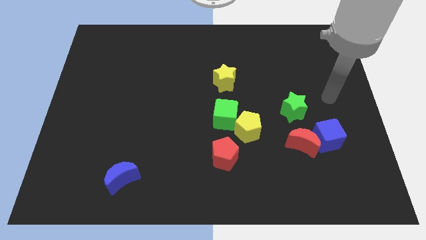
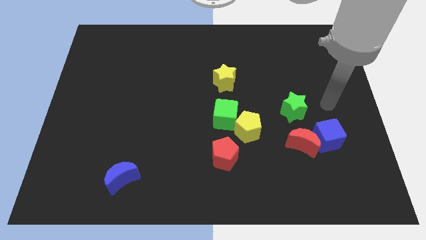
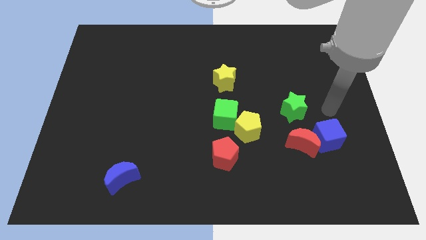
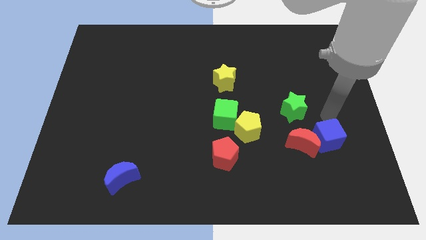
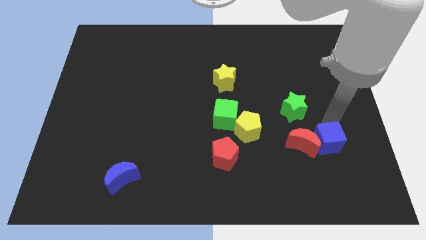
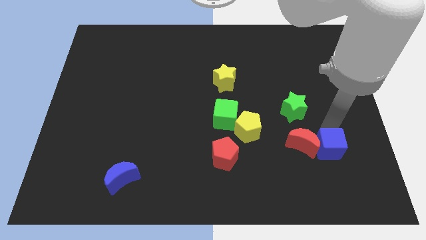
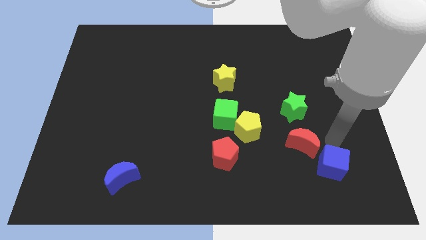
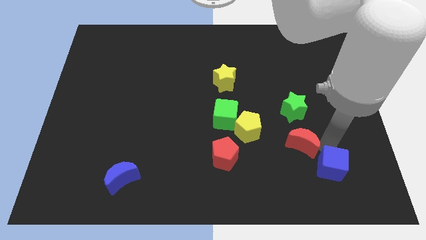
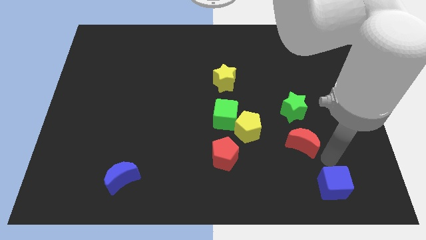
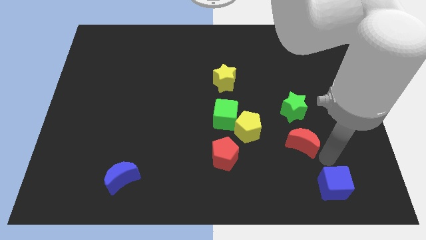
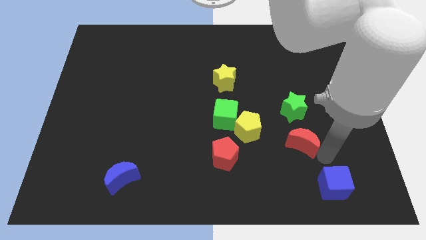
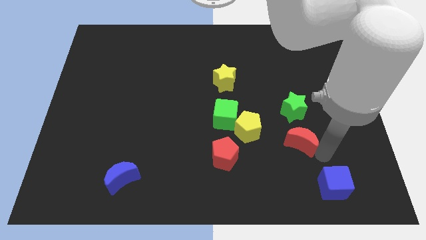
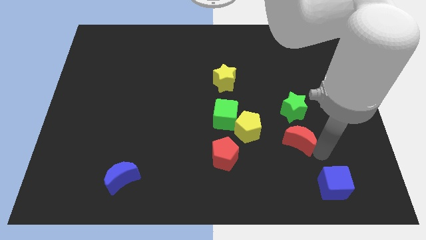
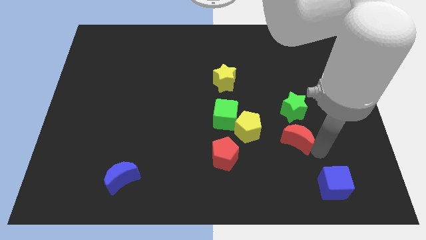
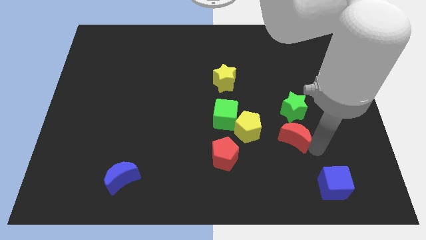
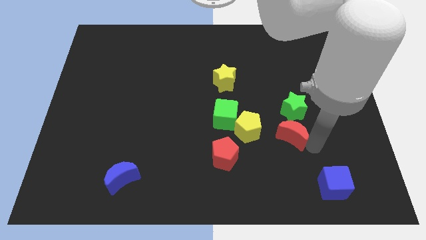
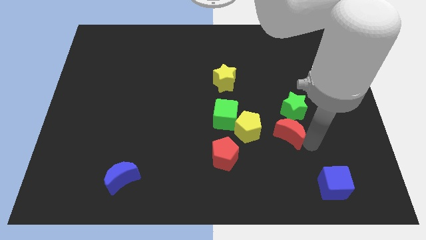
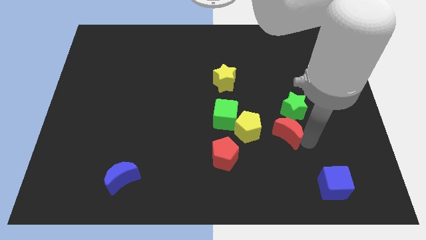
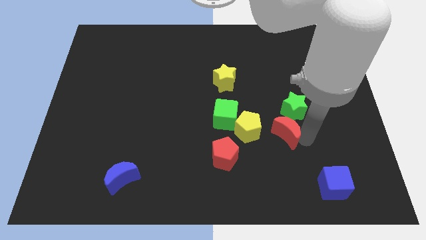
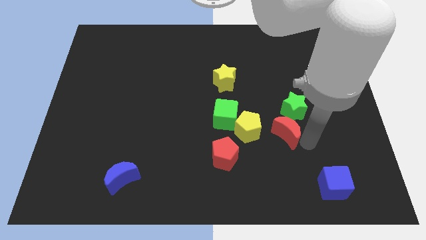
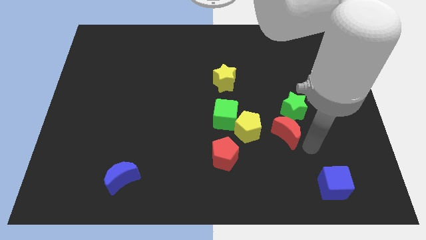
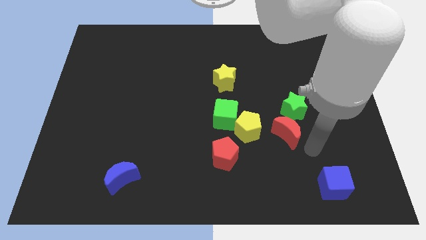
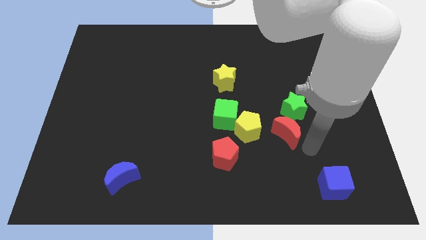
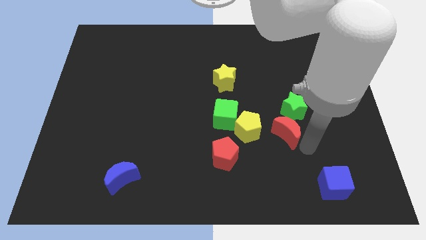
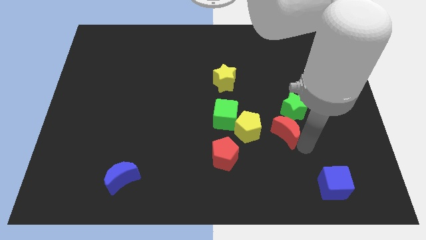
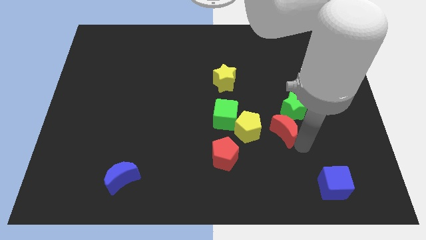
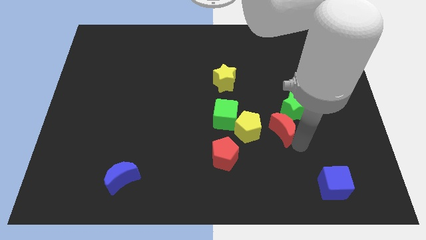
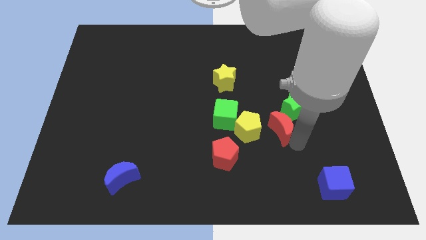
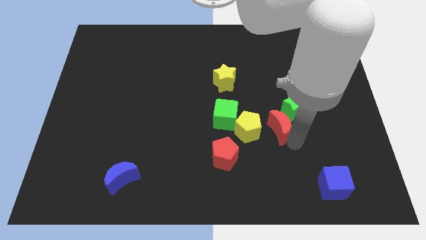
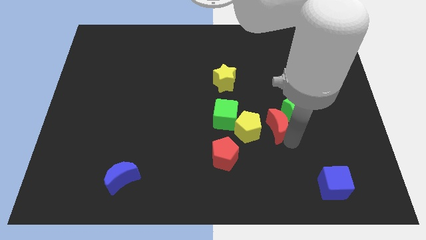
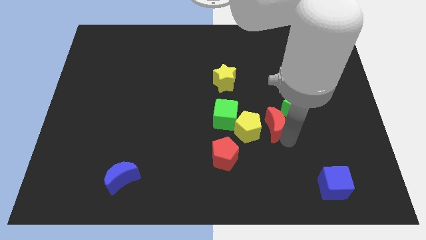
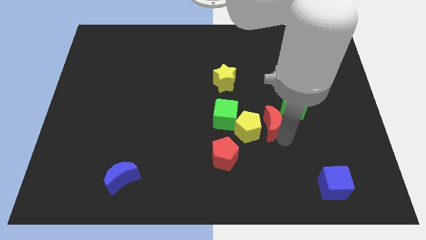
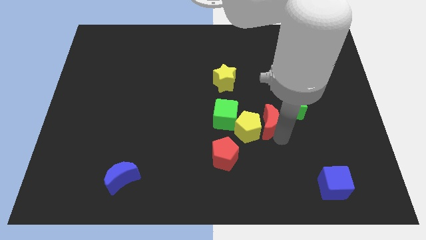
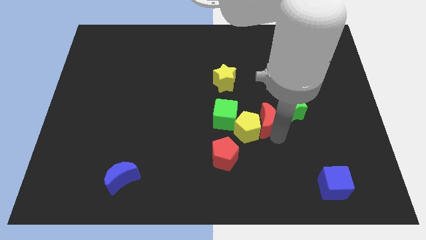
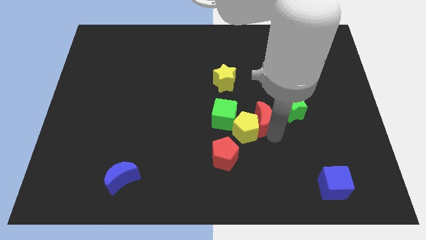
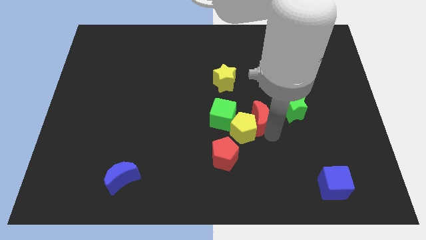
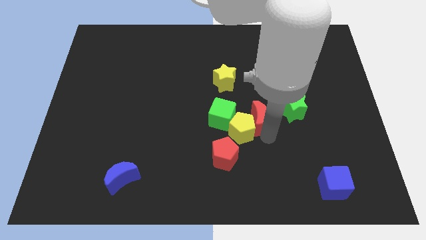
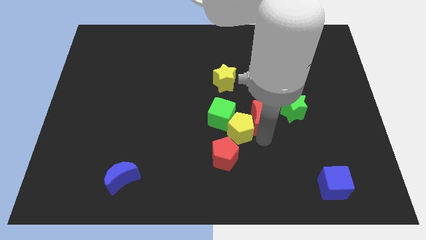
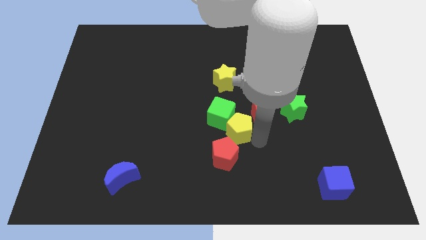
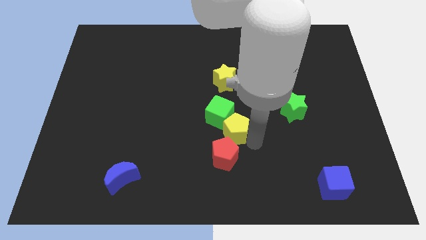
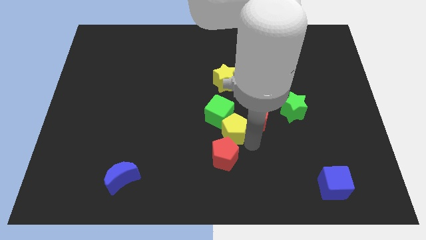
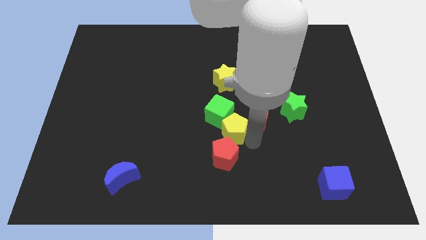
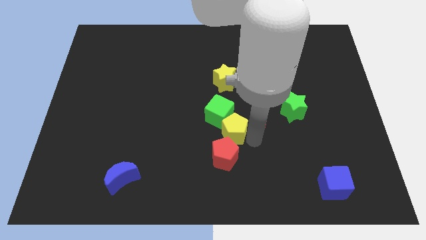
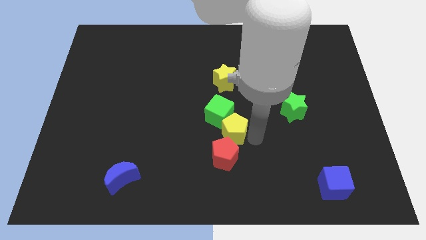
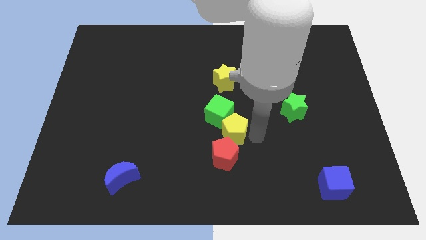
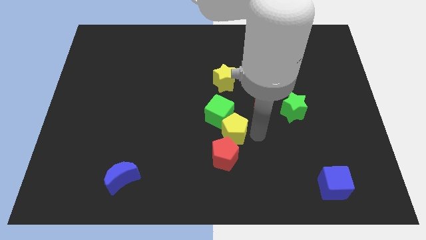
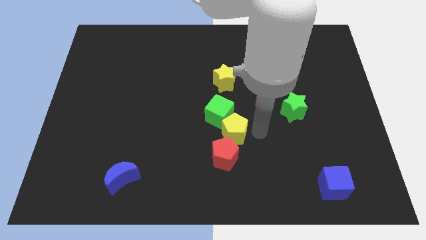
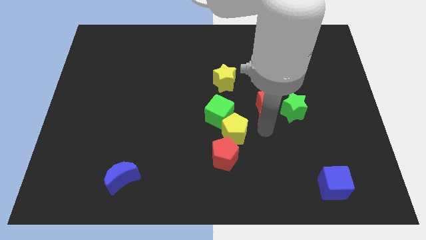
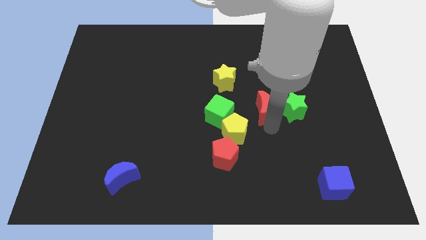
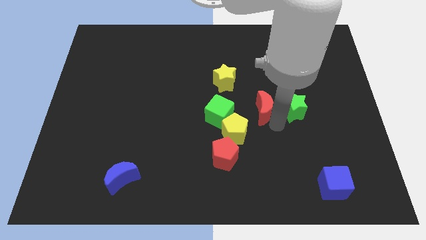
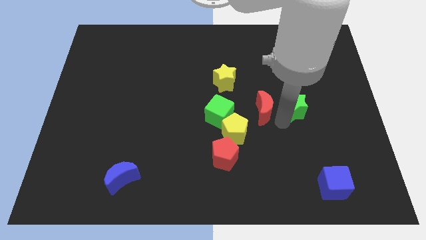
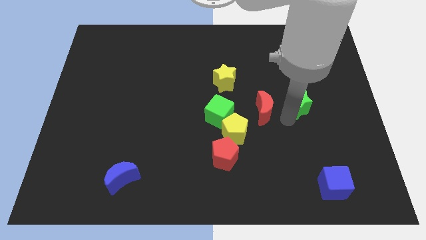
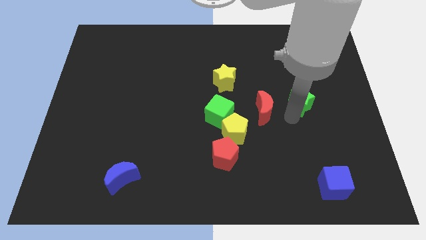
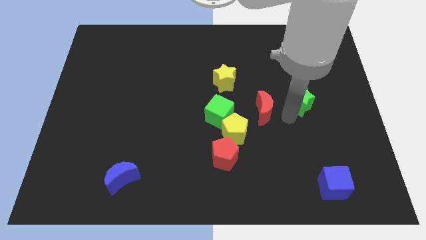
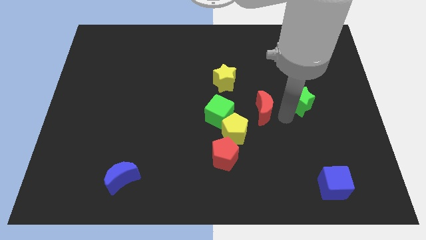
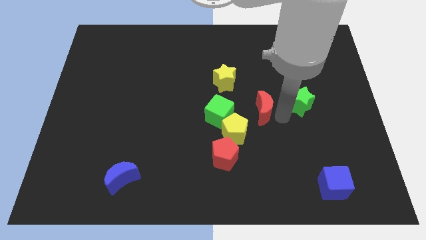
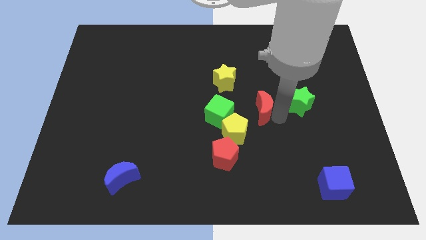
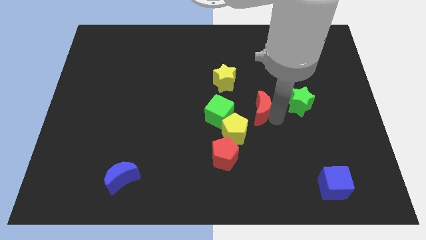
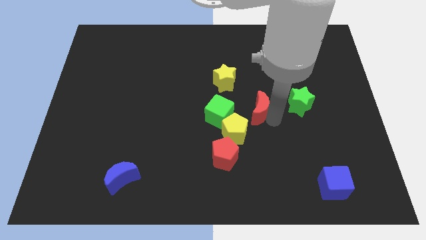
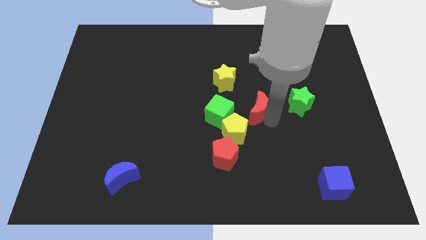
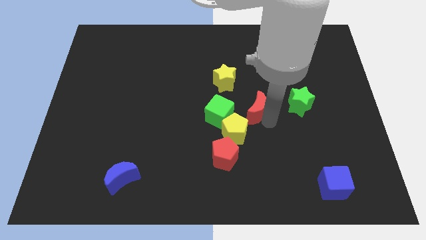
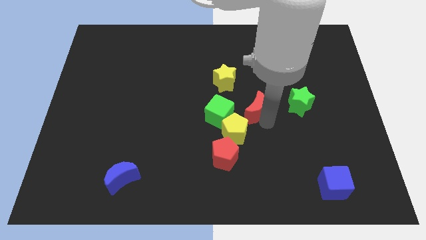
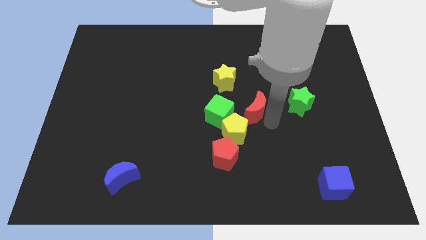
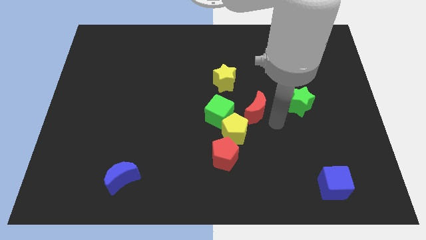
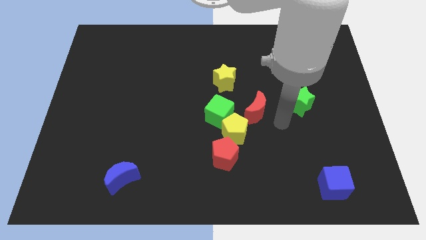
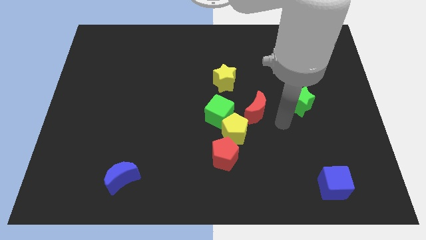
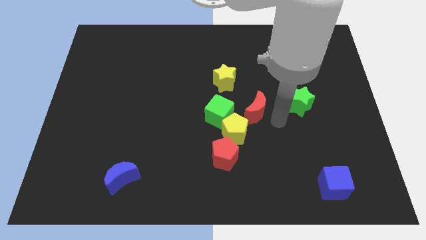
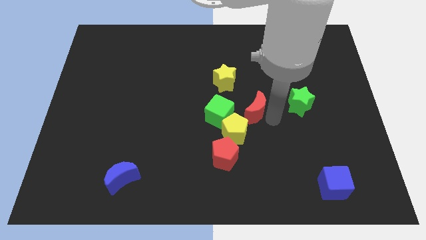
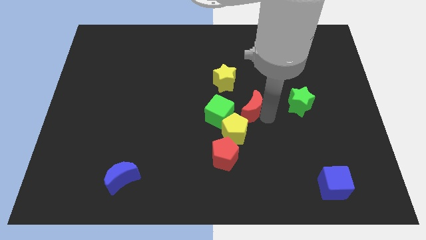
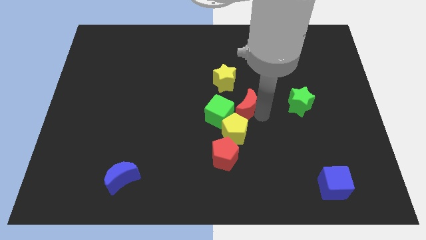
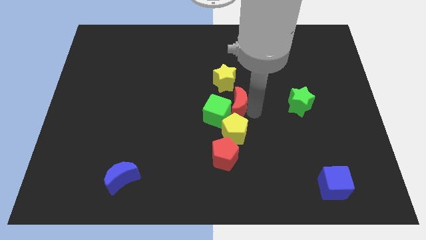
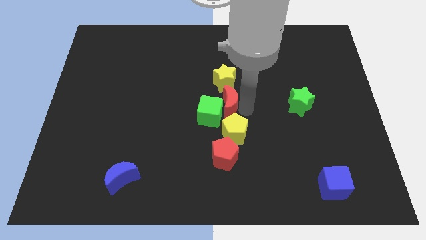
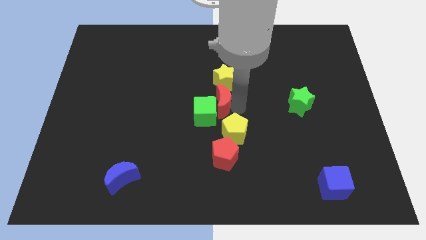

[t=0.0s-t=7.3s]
put the red moon to the bottom left side of the yellow star
